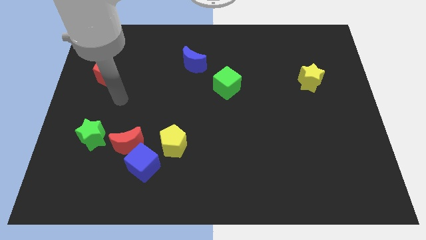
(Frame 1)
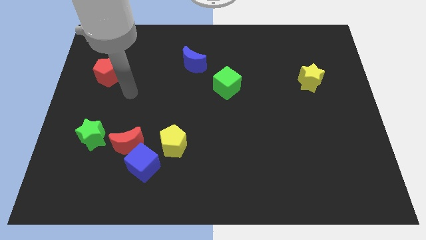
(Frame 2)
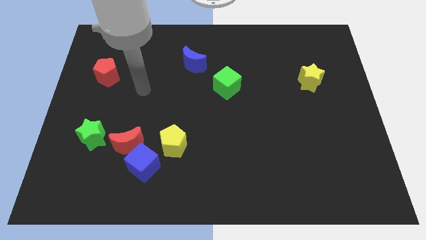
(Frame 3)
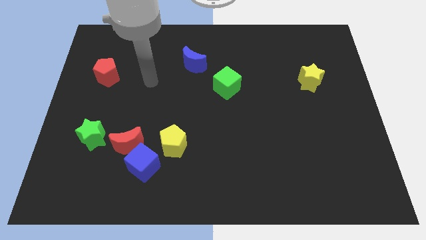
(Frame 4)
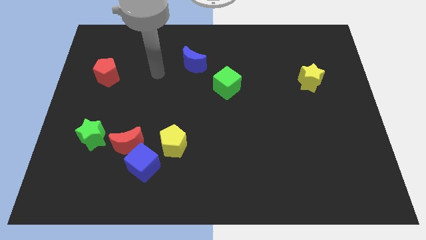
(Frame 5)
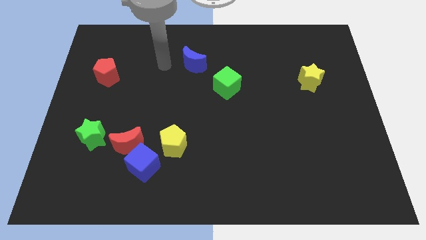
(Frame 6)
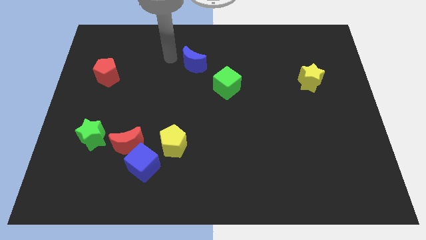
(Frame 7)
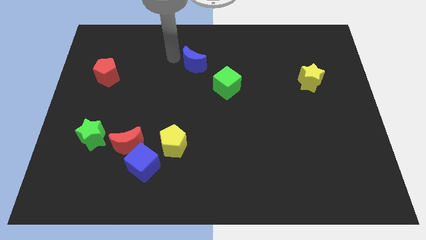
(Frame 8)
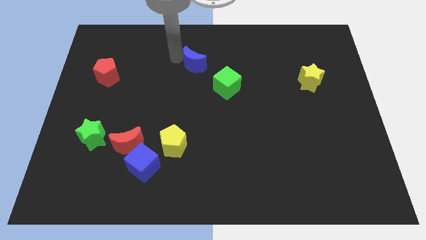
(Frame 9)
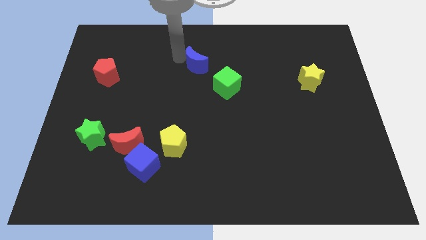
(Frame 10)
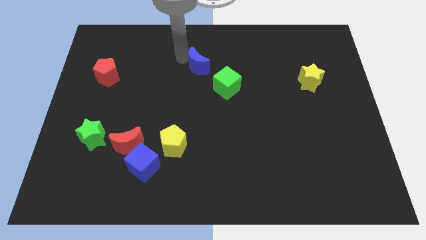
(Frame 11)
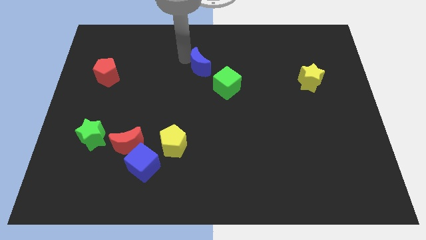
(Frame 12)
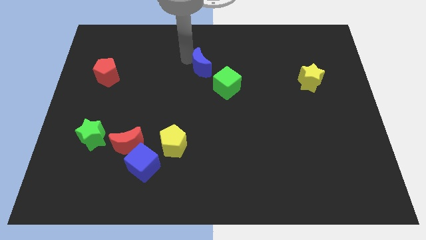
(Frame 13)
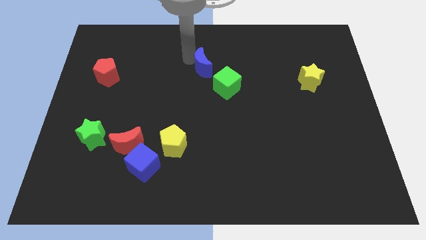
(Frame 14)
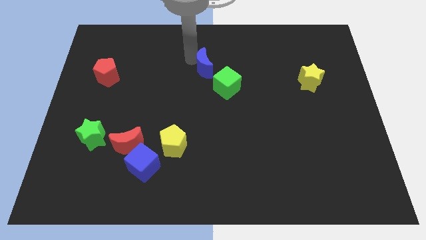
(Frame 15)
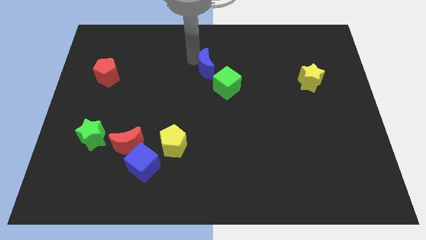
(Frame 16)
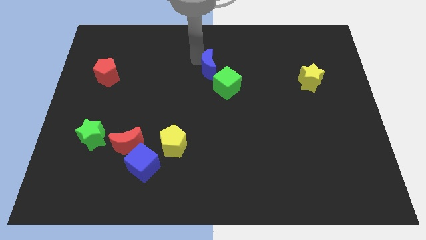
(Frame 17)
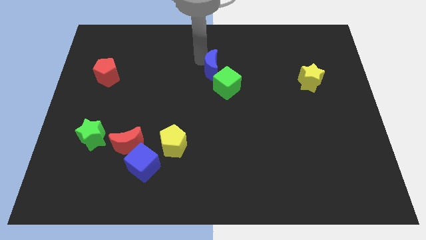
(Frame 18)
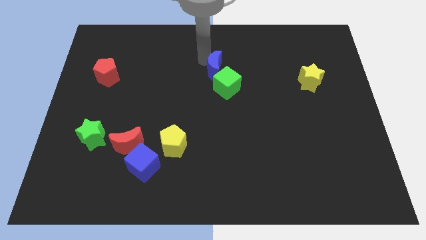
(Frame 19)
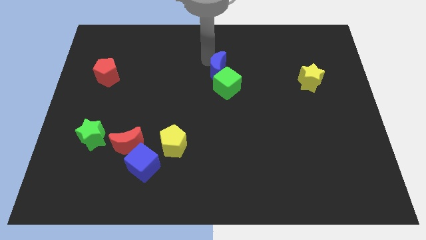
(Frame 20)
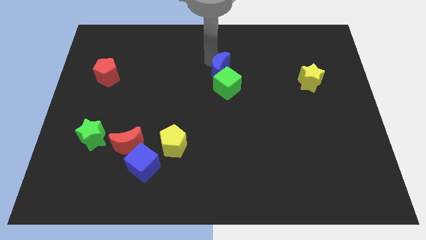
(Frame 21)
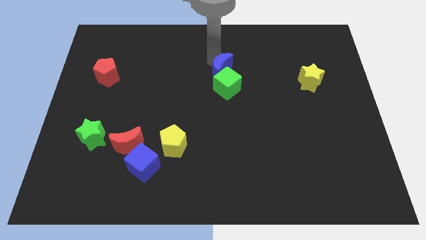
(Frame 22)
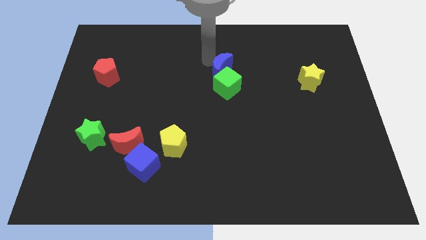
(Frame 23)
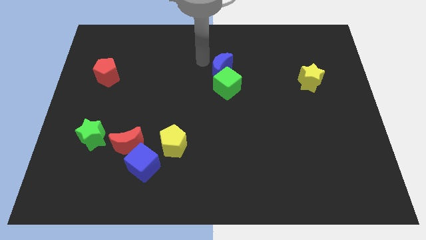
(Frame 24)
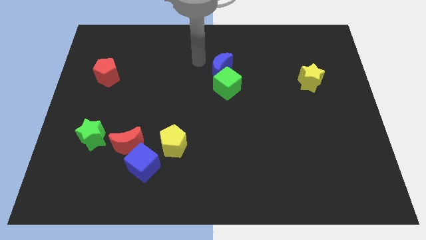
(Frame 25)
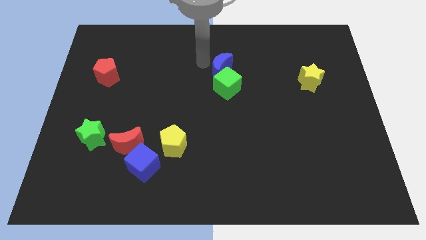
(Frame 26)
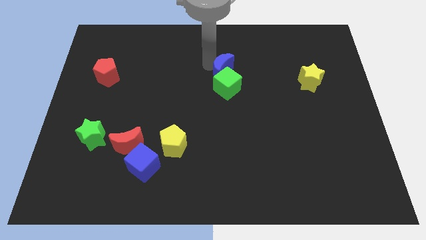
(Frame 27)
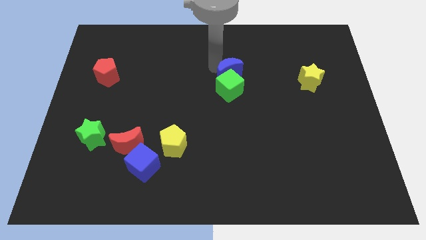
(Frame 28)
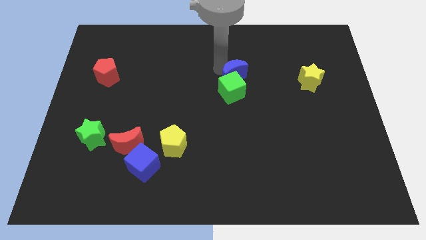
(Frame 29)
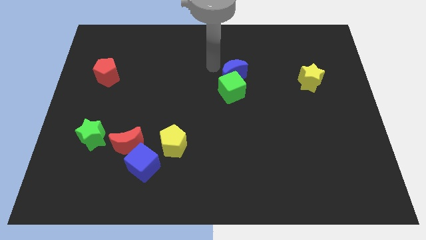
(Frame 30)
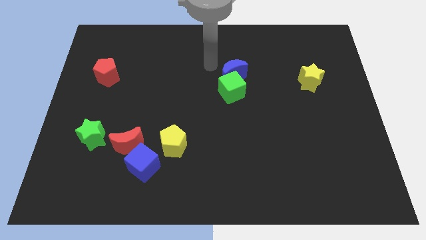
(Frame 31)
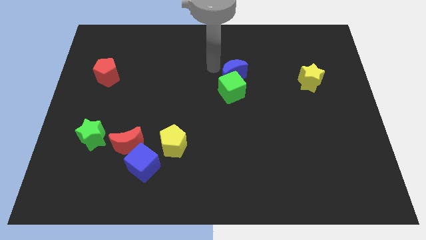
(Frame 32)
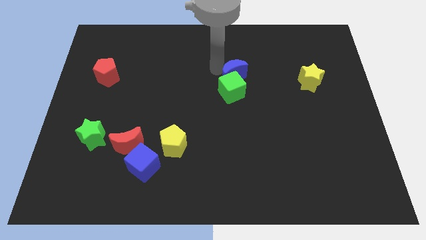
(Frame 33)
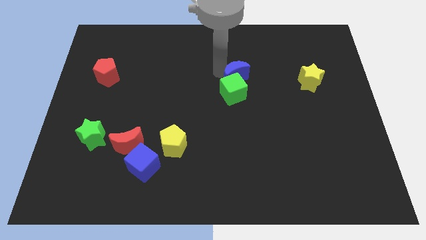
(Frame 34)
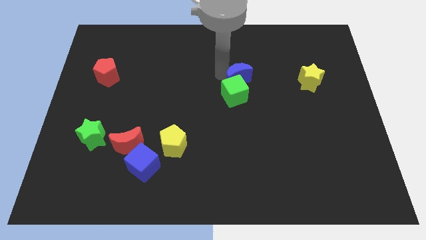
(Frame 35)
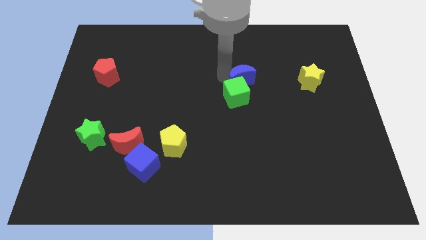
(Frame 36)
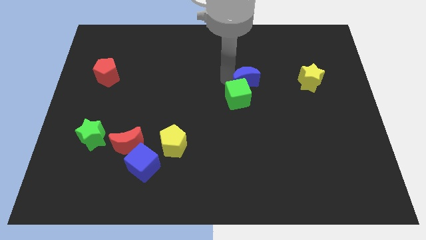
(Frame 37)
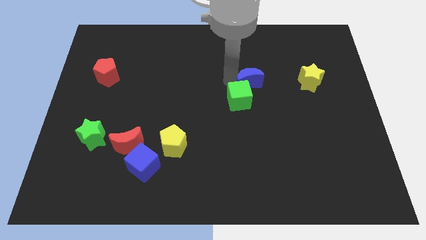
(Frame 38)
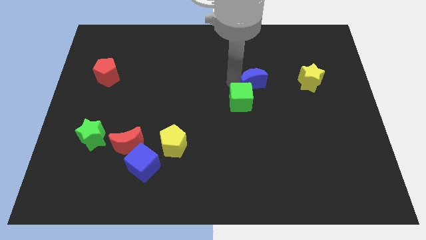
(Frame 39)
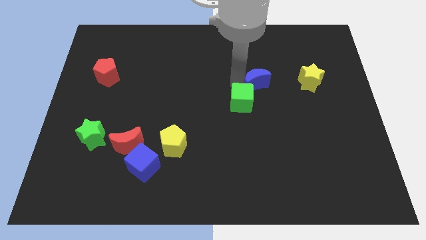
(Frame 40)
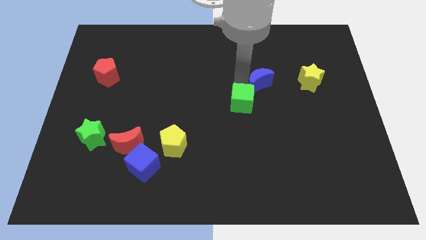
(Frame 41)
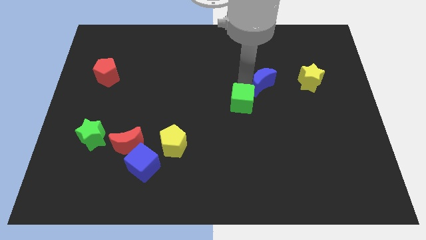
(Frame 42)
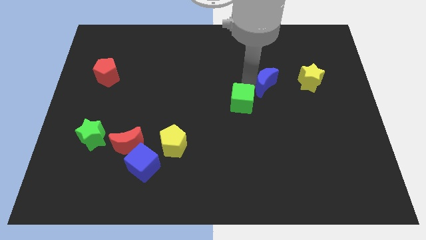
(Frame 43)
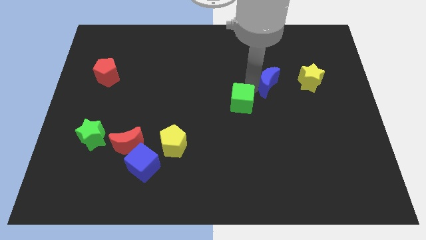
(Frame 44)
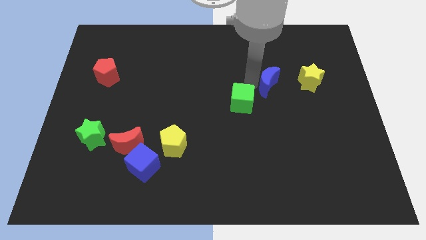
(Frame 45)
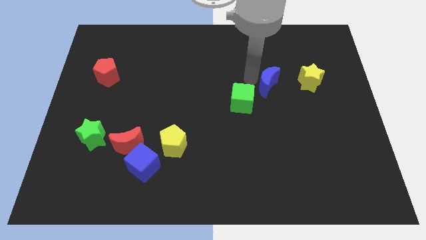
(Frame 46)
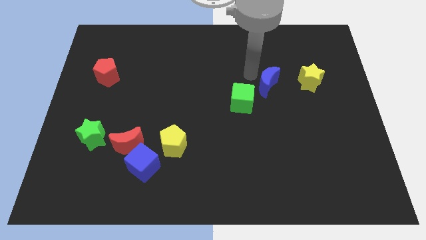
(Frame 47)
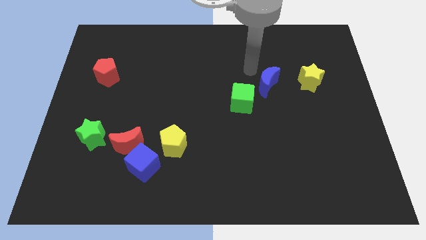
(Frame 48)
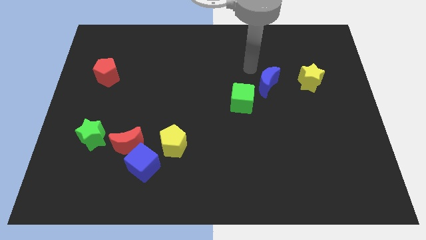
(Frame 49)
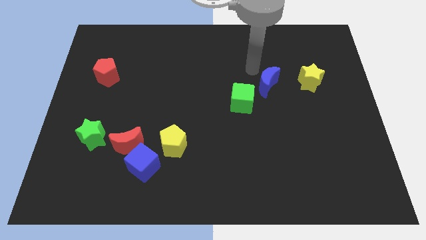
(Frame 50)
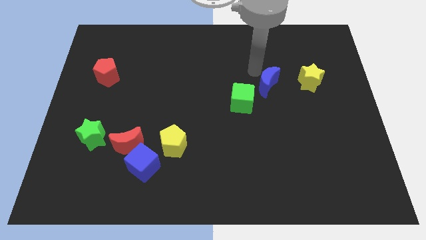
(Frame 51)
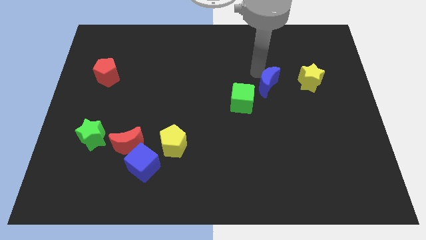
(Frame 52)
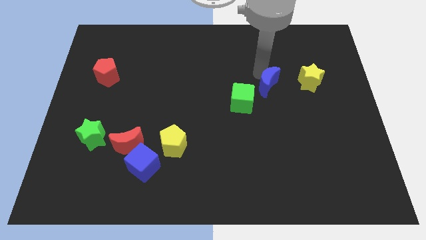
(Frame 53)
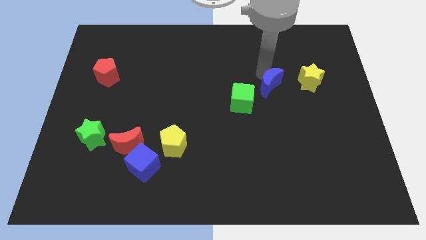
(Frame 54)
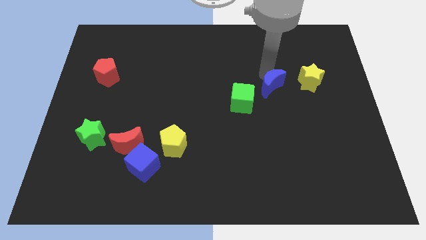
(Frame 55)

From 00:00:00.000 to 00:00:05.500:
put the blue moon just right of the green cube

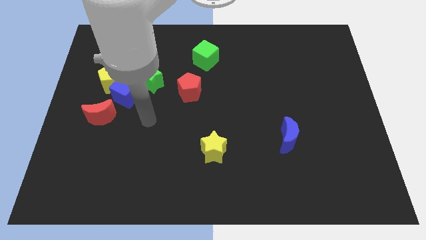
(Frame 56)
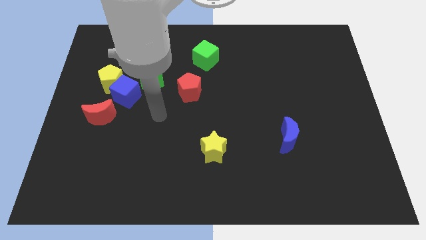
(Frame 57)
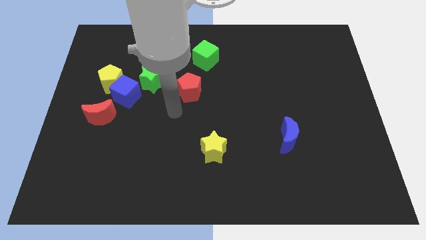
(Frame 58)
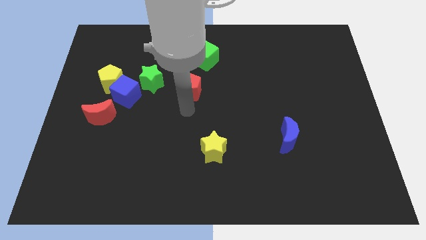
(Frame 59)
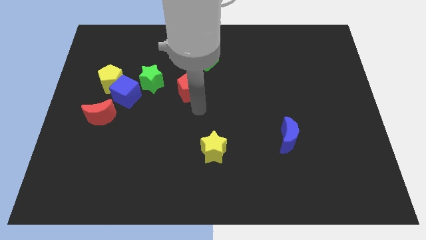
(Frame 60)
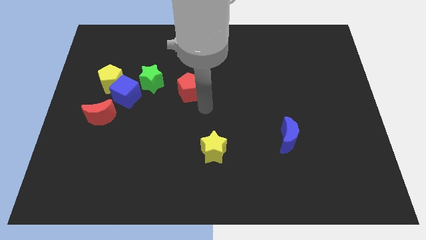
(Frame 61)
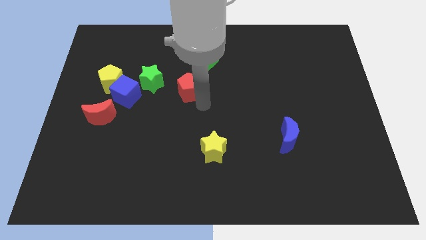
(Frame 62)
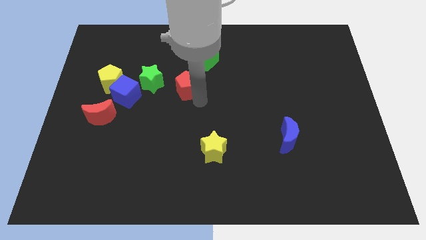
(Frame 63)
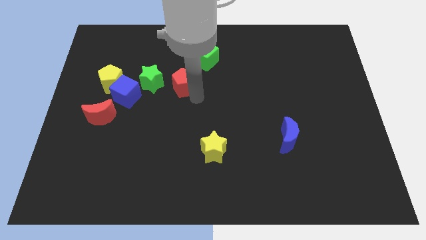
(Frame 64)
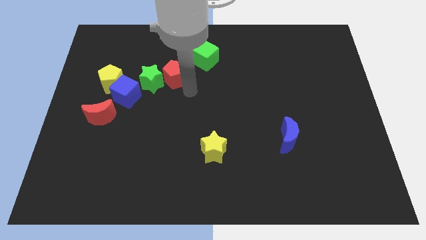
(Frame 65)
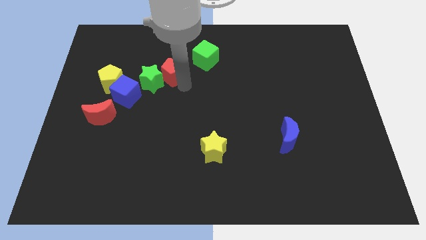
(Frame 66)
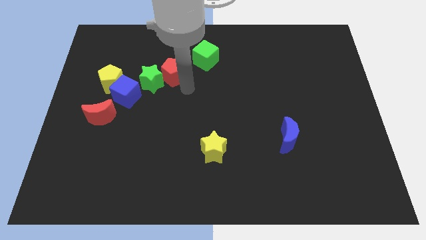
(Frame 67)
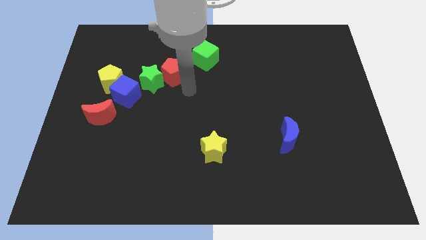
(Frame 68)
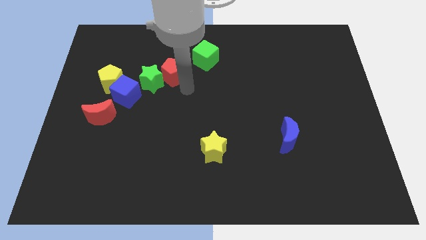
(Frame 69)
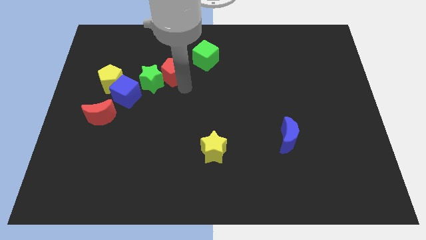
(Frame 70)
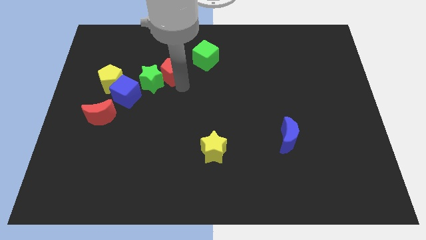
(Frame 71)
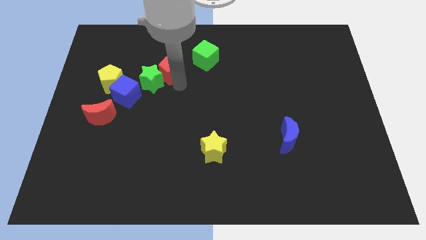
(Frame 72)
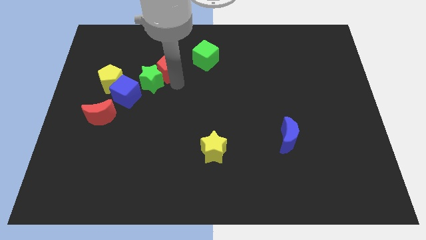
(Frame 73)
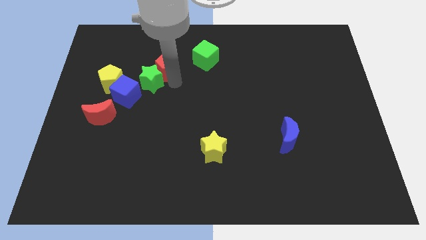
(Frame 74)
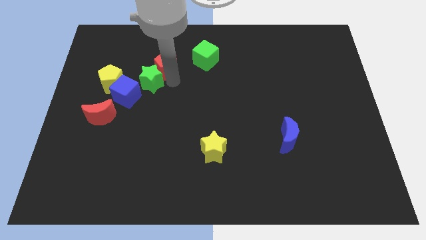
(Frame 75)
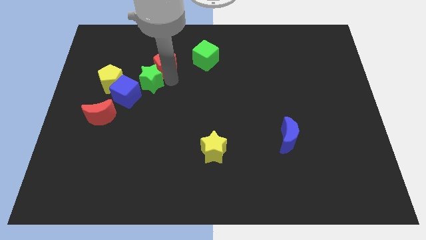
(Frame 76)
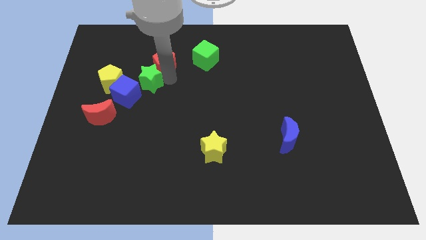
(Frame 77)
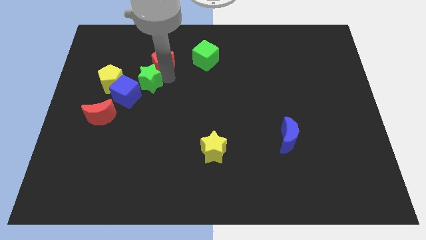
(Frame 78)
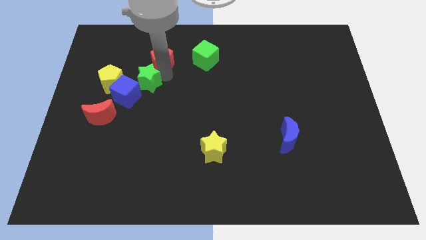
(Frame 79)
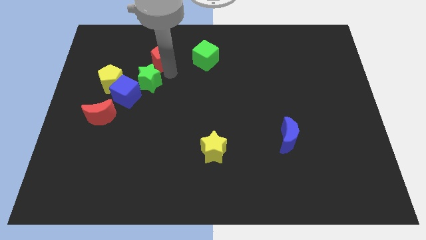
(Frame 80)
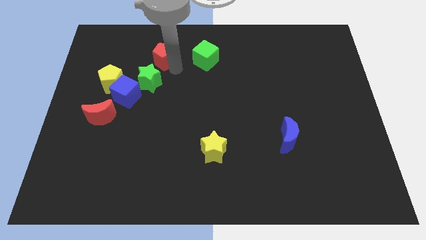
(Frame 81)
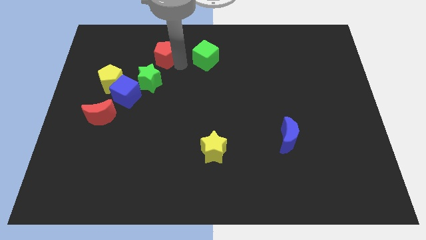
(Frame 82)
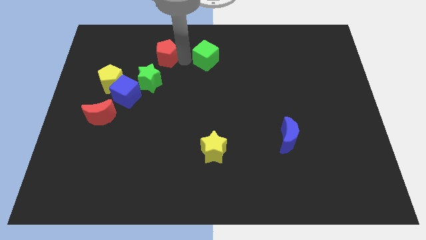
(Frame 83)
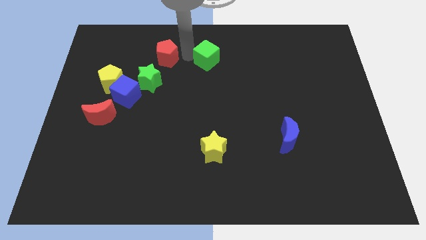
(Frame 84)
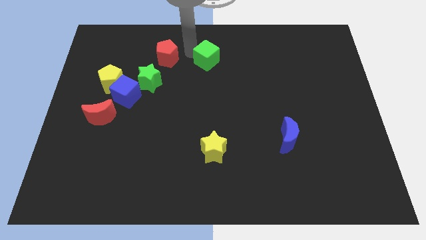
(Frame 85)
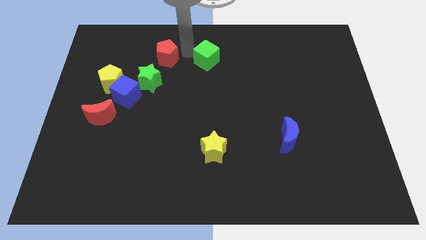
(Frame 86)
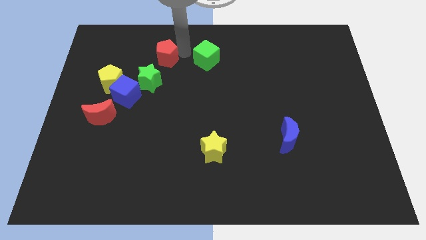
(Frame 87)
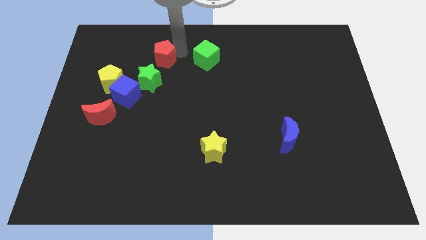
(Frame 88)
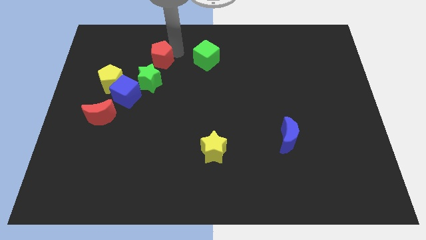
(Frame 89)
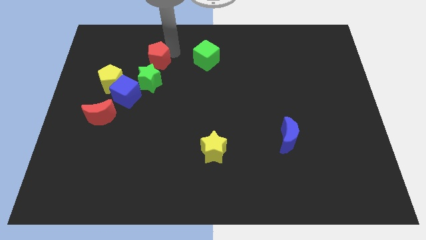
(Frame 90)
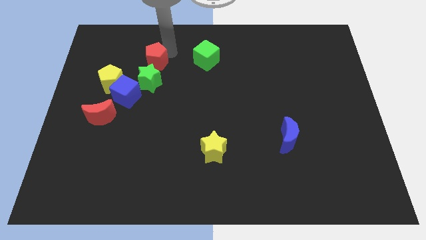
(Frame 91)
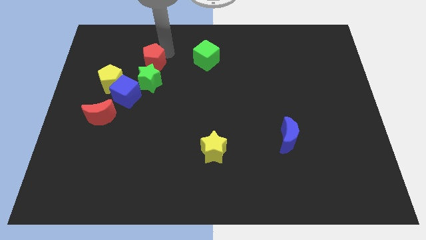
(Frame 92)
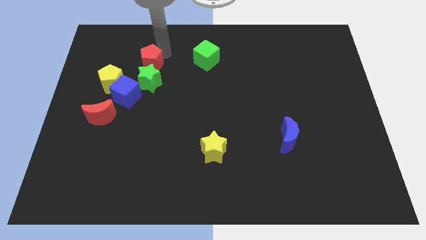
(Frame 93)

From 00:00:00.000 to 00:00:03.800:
move the red pentagon to the top side of the blue cube
